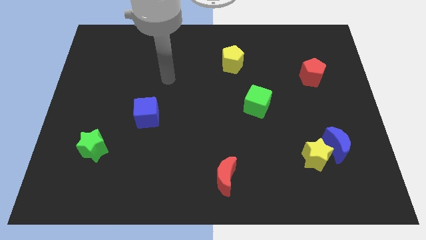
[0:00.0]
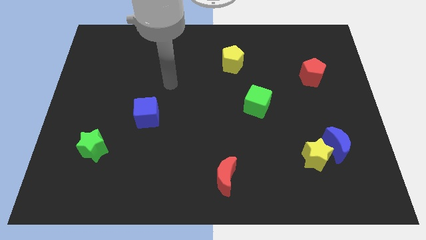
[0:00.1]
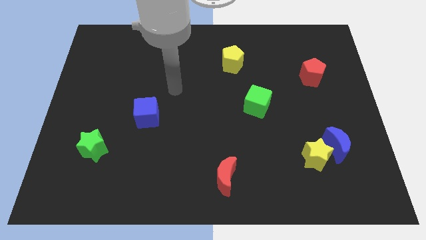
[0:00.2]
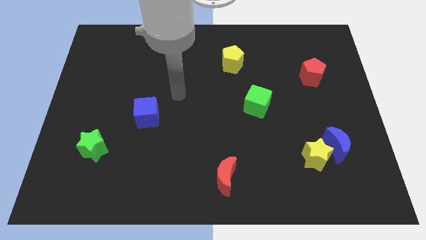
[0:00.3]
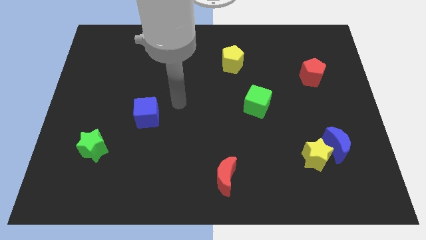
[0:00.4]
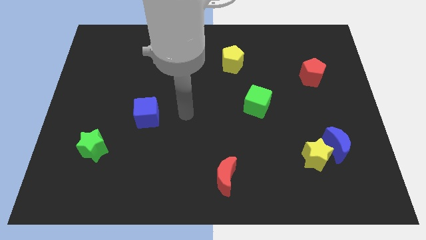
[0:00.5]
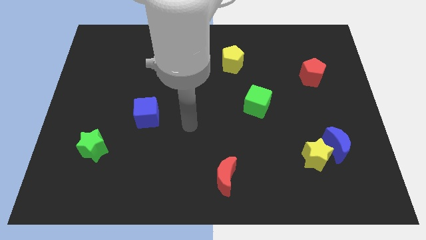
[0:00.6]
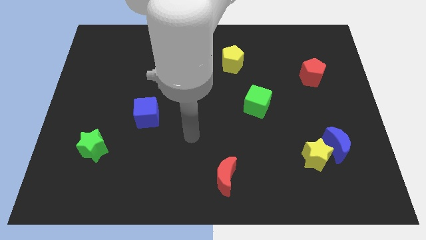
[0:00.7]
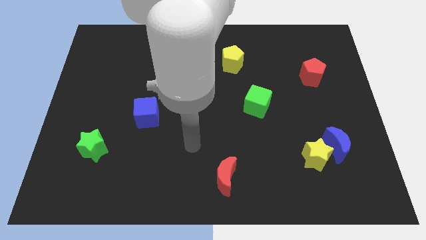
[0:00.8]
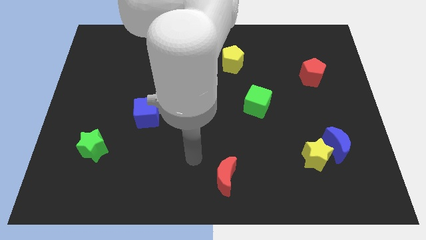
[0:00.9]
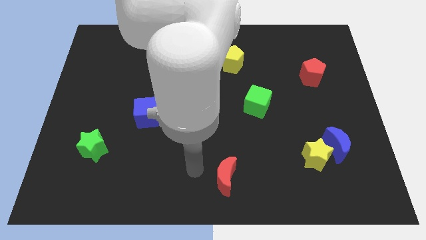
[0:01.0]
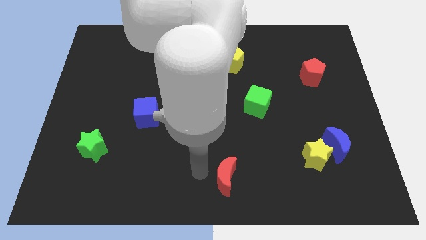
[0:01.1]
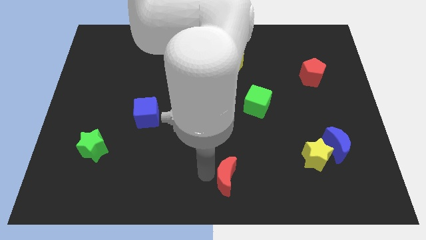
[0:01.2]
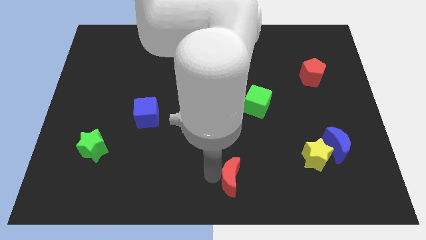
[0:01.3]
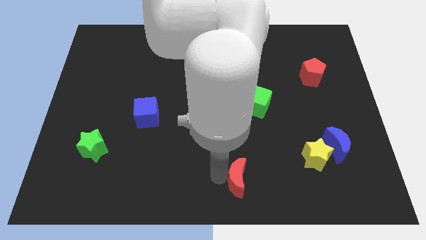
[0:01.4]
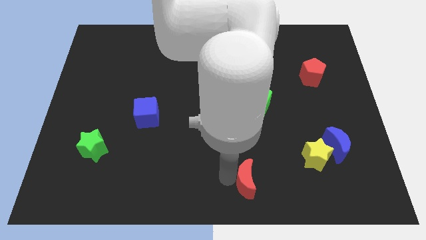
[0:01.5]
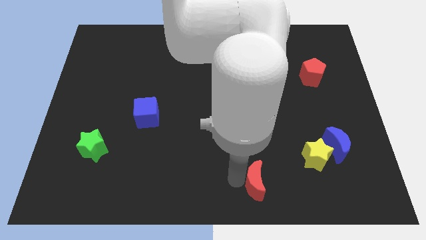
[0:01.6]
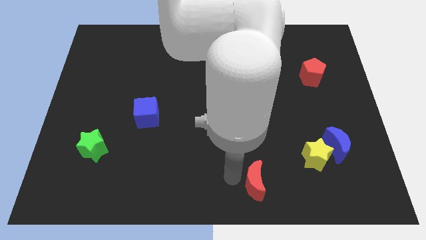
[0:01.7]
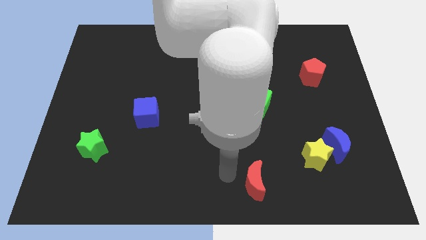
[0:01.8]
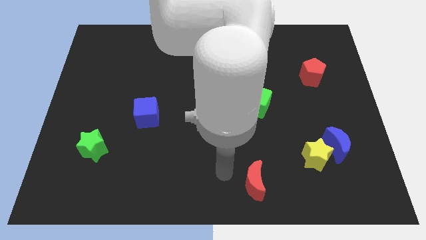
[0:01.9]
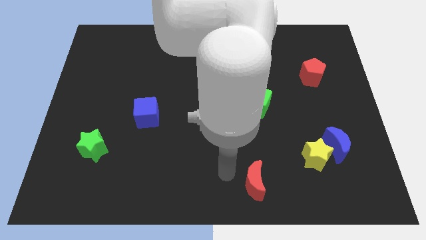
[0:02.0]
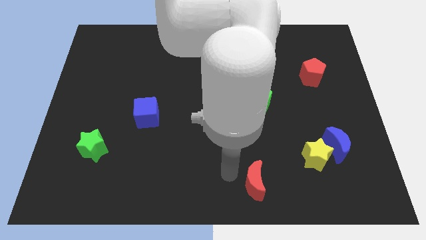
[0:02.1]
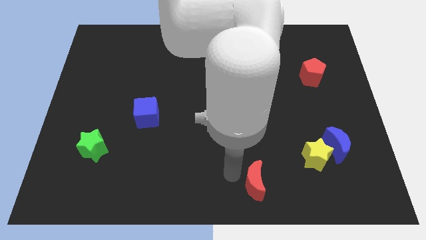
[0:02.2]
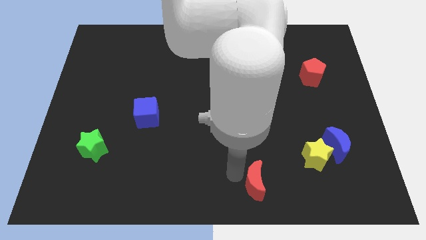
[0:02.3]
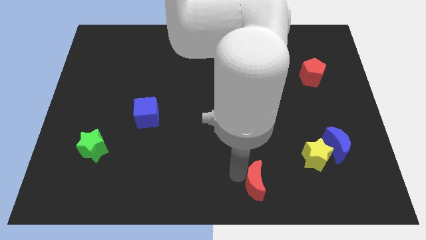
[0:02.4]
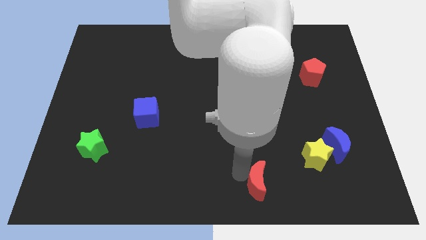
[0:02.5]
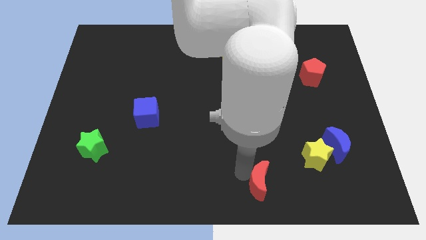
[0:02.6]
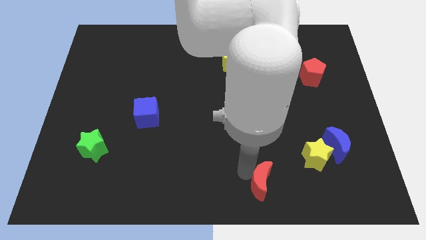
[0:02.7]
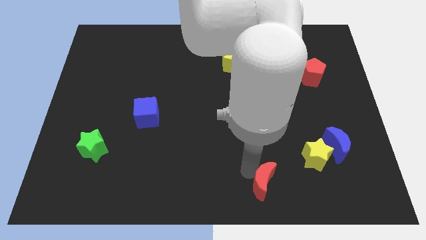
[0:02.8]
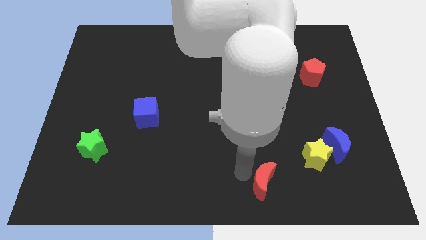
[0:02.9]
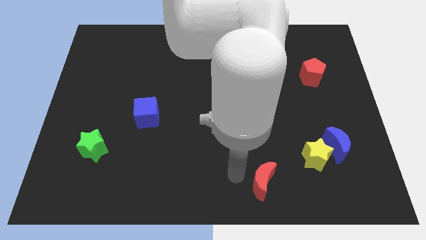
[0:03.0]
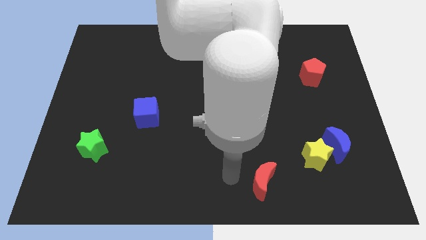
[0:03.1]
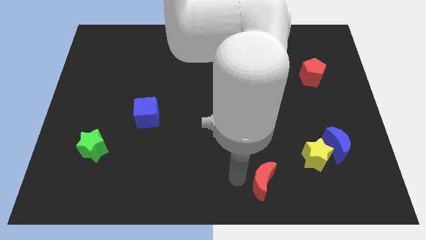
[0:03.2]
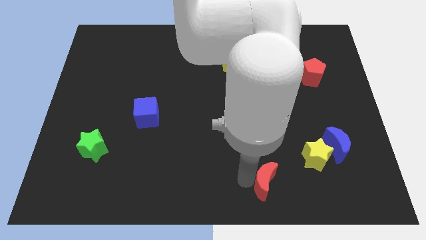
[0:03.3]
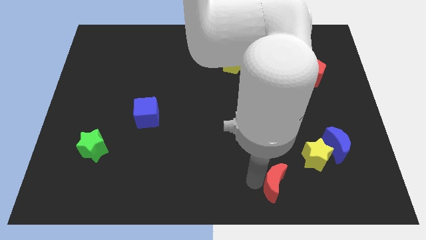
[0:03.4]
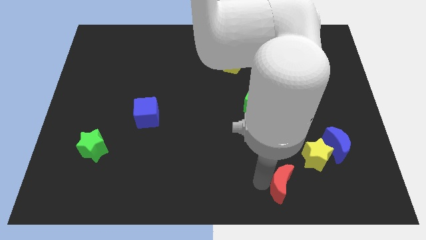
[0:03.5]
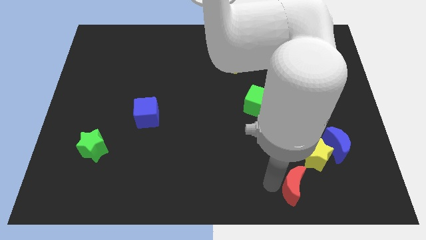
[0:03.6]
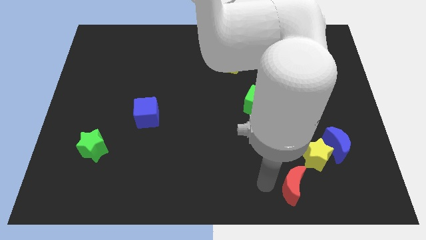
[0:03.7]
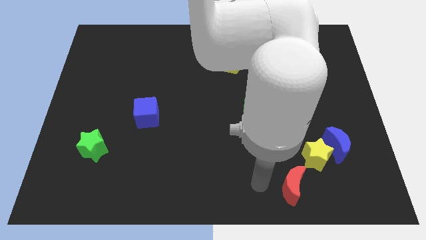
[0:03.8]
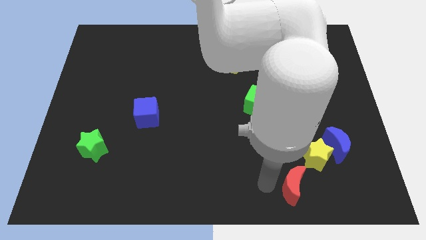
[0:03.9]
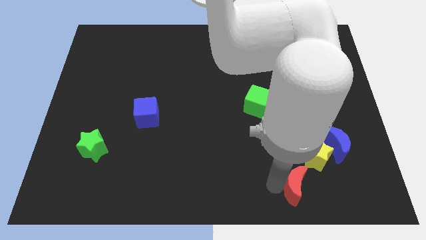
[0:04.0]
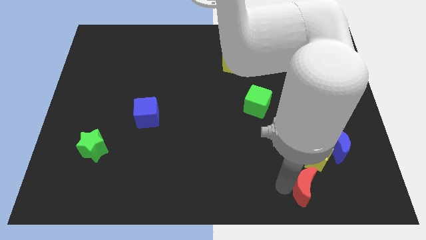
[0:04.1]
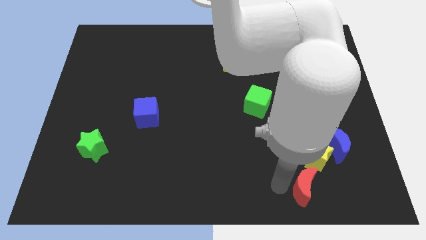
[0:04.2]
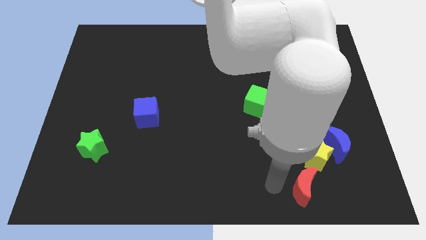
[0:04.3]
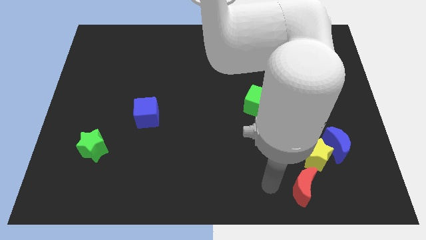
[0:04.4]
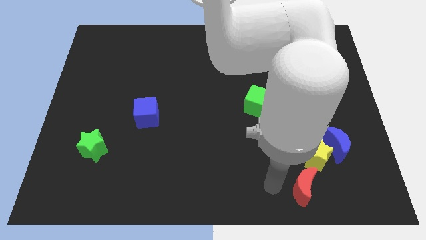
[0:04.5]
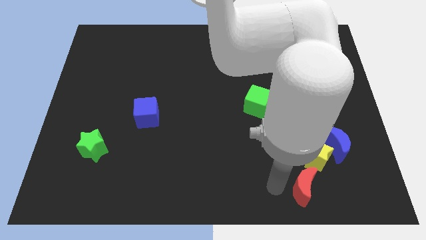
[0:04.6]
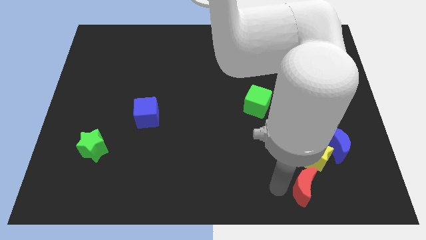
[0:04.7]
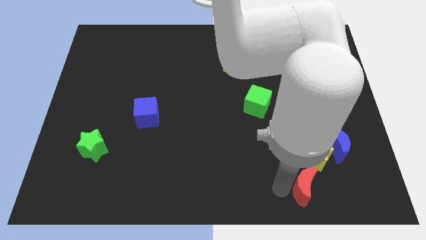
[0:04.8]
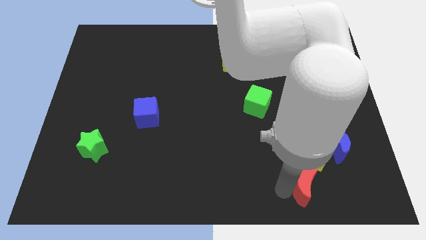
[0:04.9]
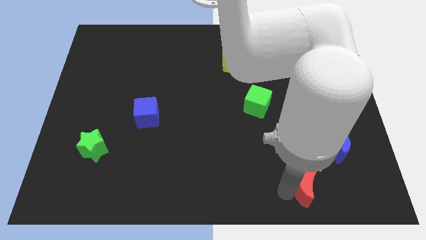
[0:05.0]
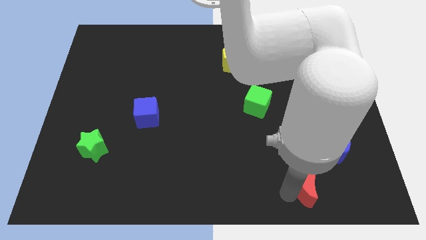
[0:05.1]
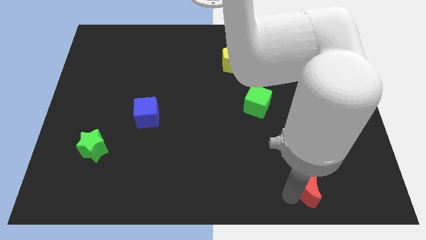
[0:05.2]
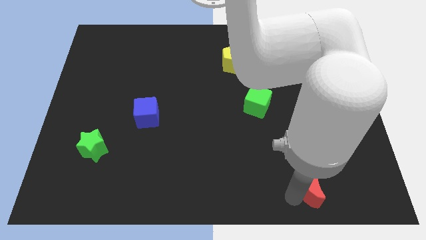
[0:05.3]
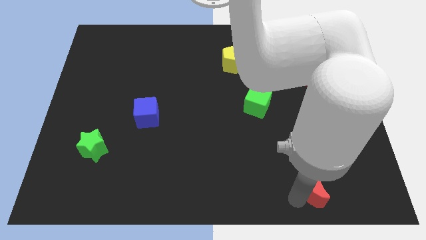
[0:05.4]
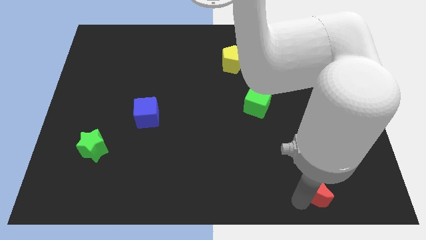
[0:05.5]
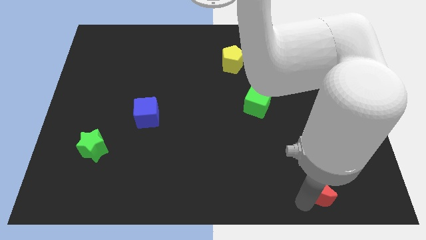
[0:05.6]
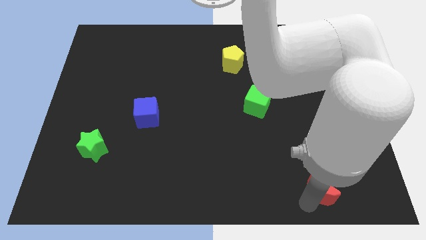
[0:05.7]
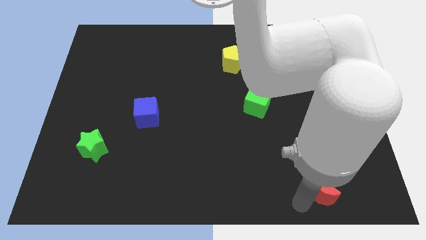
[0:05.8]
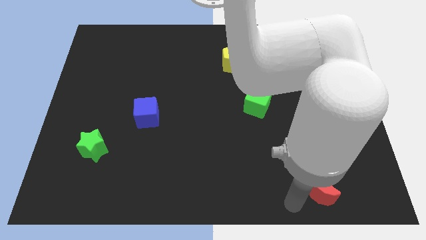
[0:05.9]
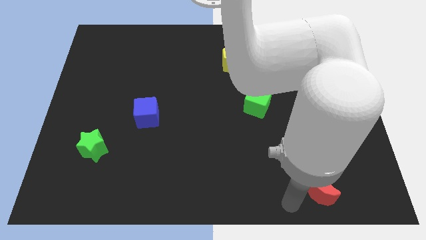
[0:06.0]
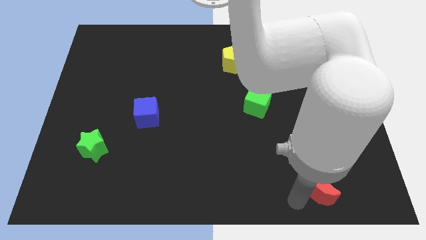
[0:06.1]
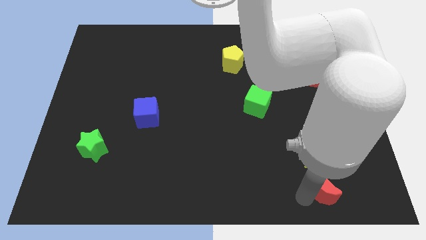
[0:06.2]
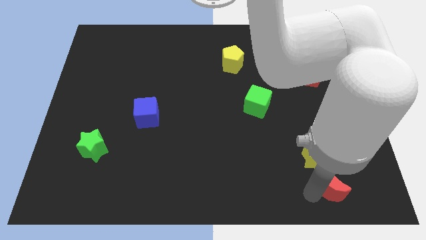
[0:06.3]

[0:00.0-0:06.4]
slide the red moon to the bottom right side of the yellow star

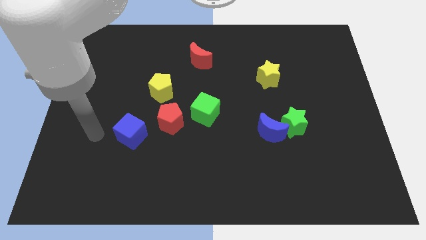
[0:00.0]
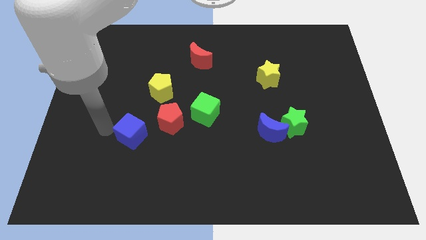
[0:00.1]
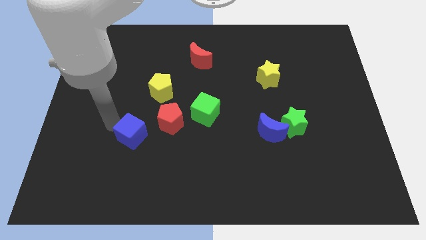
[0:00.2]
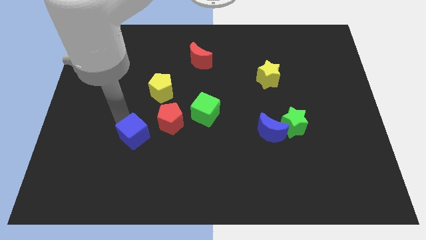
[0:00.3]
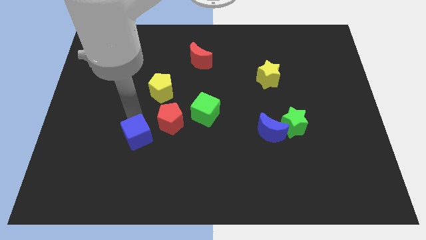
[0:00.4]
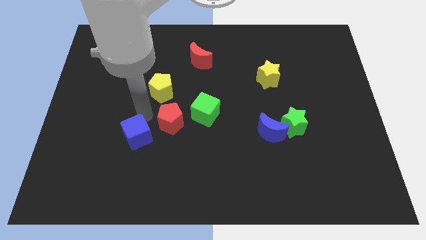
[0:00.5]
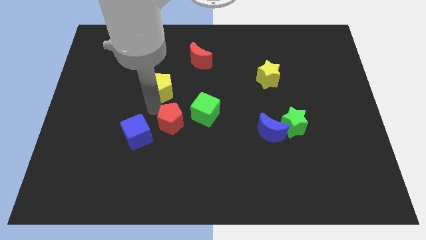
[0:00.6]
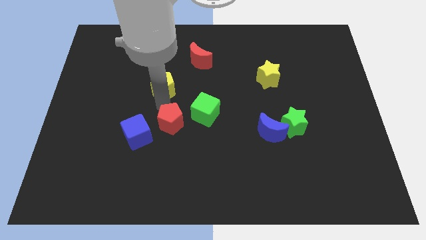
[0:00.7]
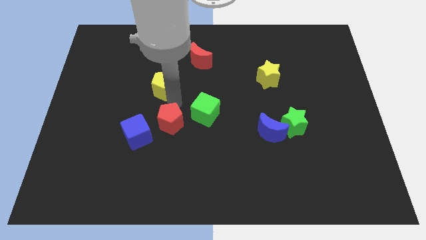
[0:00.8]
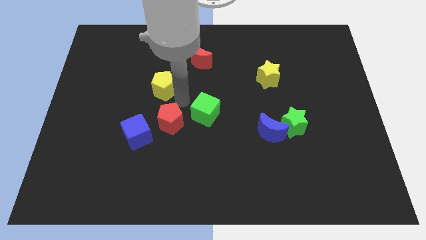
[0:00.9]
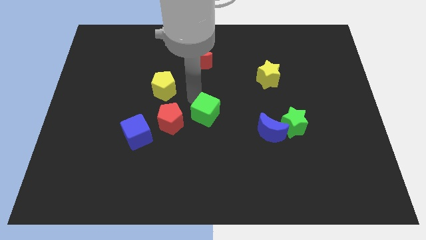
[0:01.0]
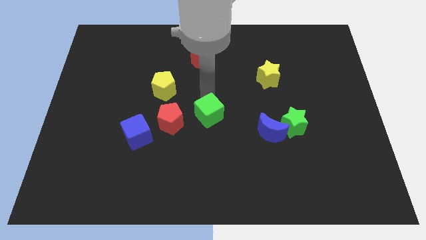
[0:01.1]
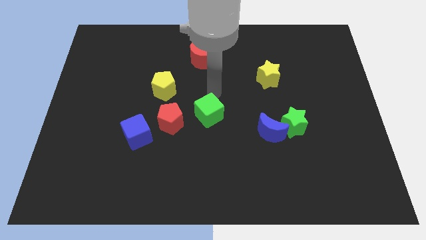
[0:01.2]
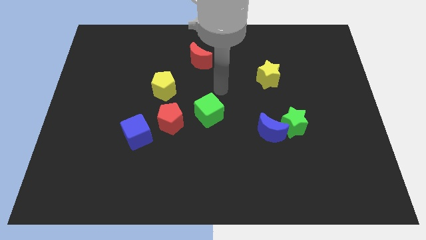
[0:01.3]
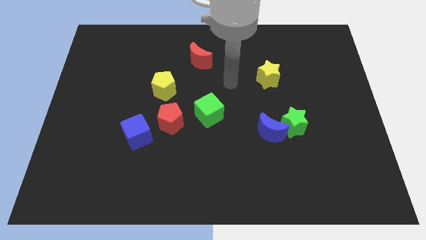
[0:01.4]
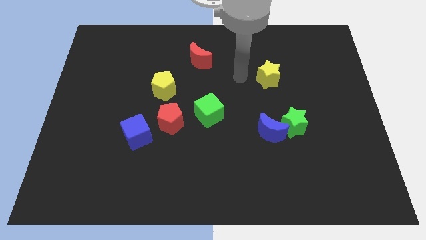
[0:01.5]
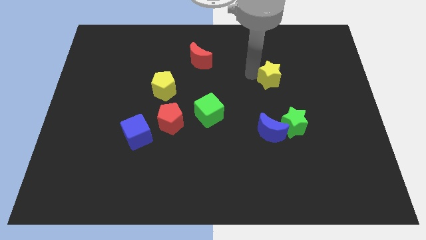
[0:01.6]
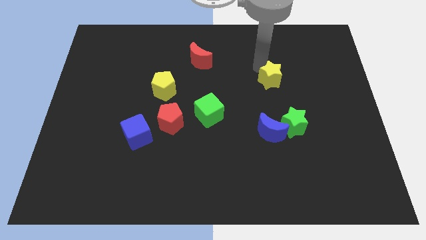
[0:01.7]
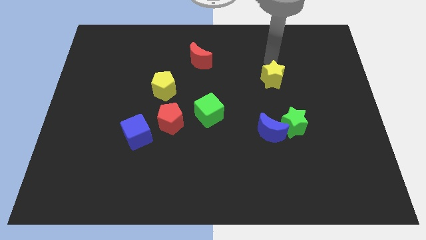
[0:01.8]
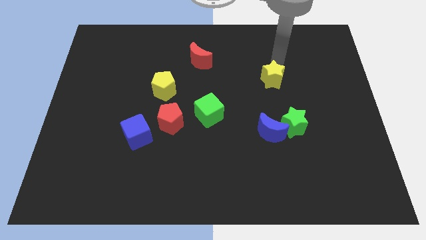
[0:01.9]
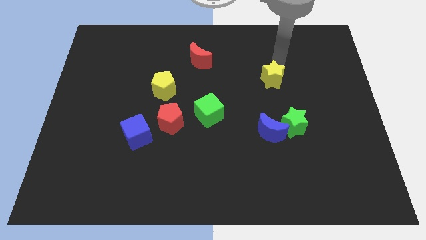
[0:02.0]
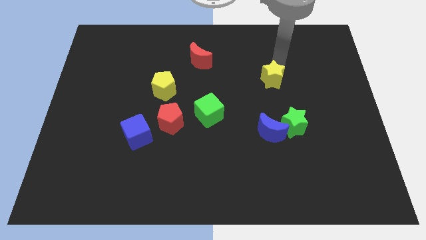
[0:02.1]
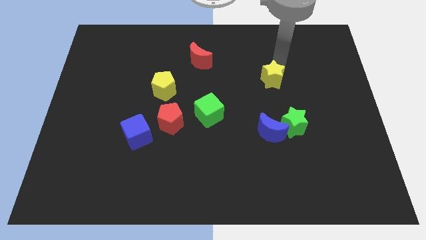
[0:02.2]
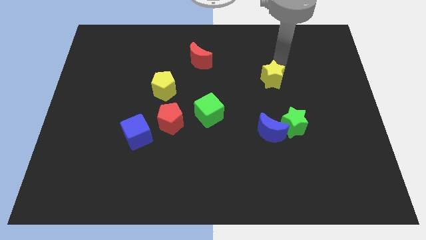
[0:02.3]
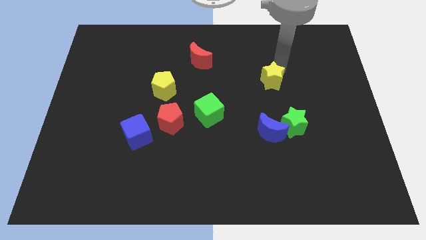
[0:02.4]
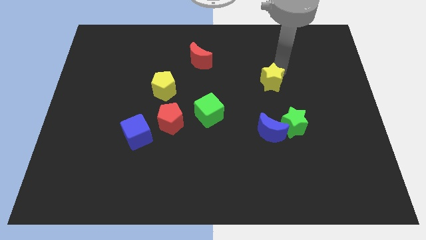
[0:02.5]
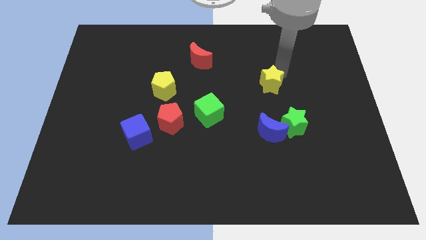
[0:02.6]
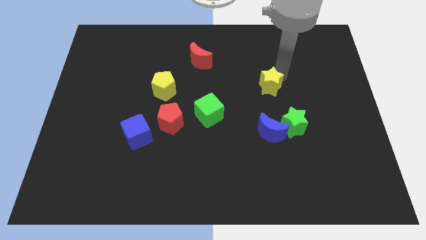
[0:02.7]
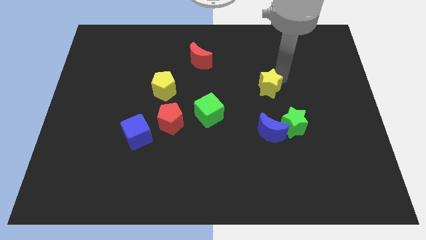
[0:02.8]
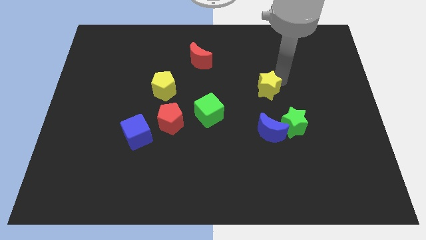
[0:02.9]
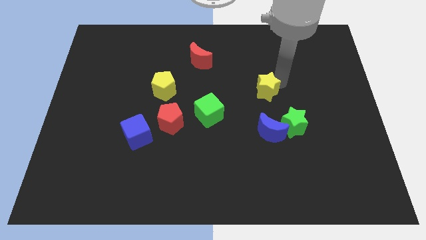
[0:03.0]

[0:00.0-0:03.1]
slide the yellow star diagonally up and to the left of the green star
